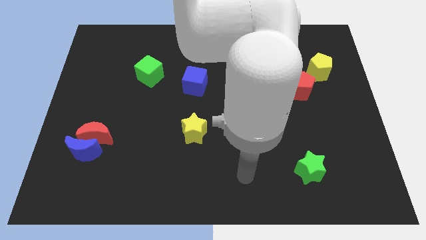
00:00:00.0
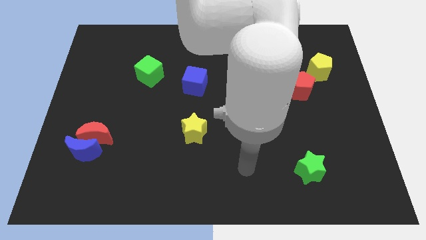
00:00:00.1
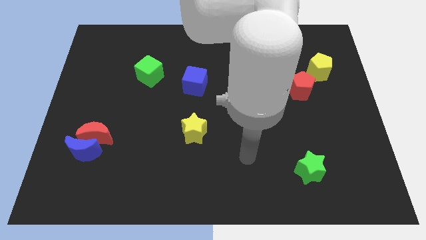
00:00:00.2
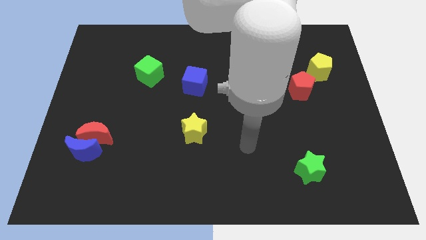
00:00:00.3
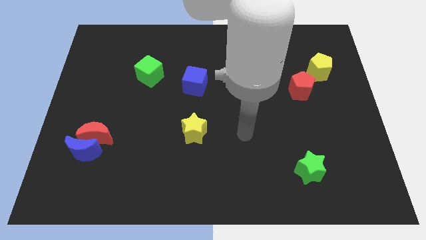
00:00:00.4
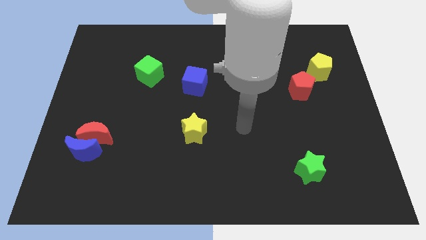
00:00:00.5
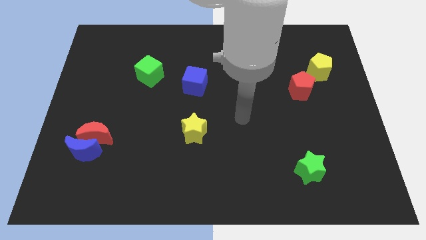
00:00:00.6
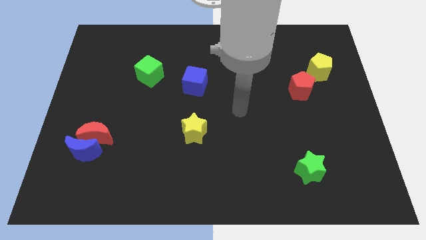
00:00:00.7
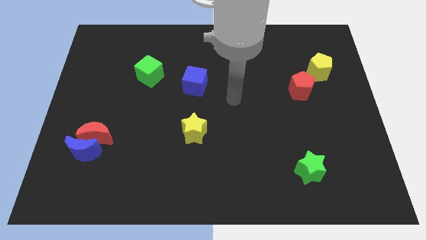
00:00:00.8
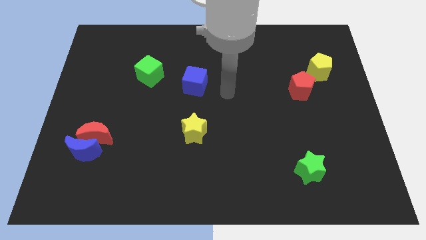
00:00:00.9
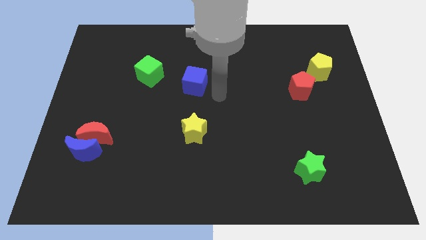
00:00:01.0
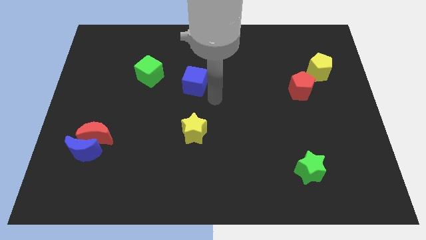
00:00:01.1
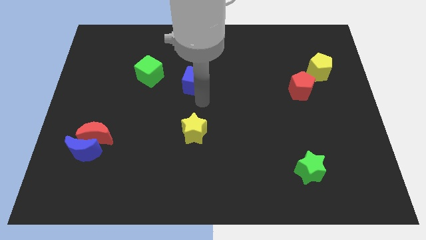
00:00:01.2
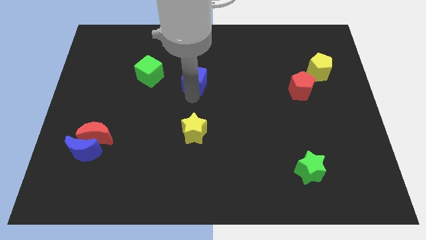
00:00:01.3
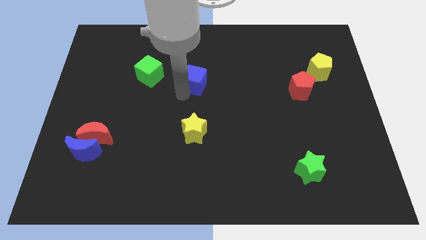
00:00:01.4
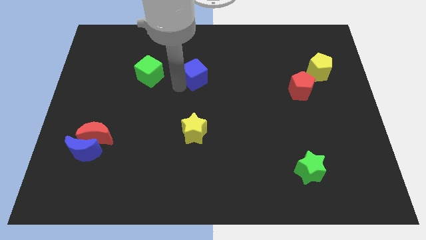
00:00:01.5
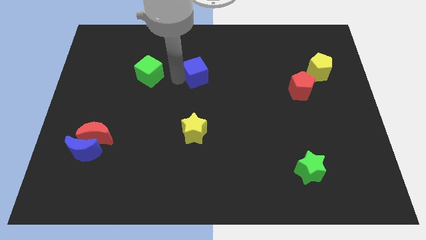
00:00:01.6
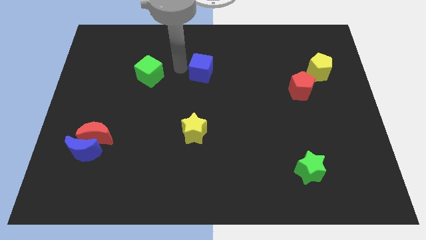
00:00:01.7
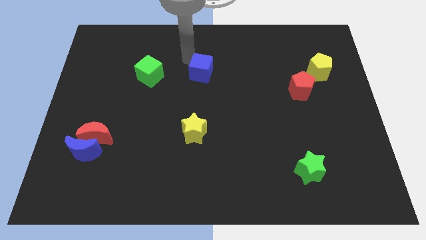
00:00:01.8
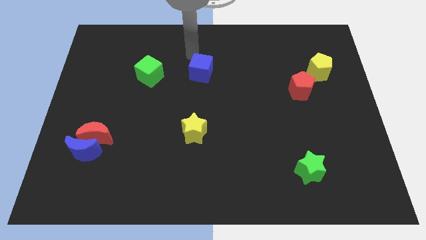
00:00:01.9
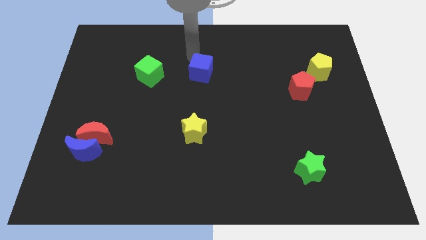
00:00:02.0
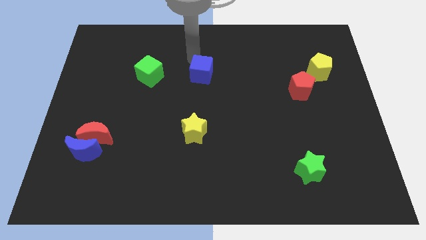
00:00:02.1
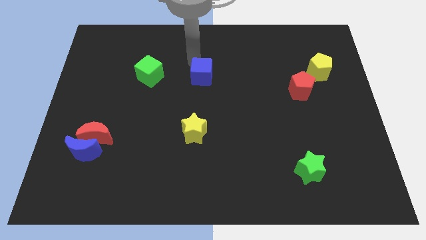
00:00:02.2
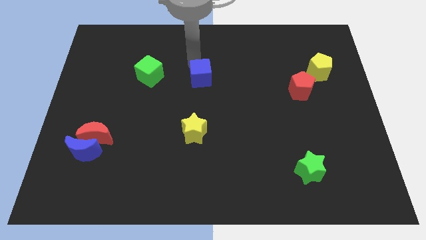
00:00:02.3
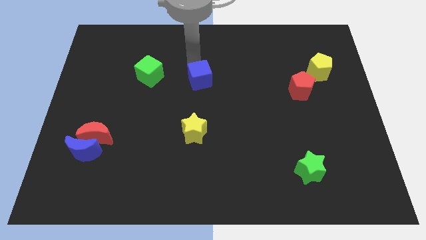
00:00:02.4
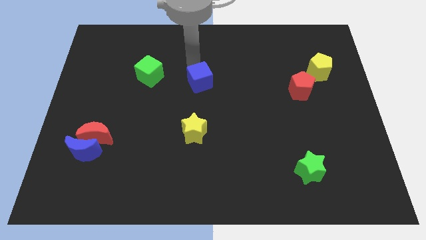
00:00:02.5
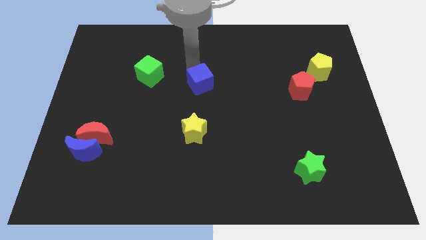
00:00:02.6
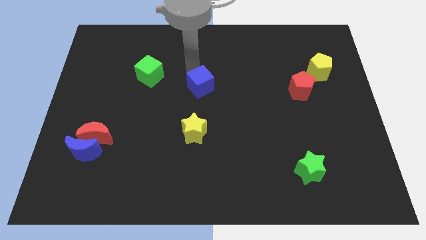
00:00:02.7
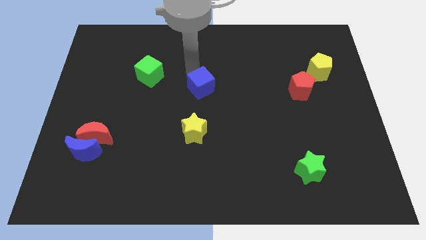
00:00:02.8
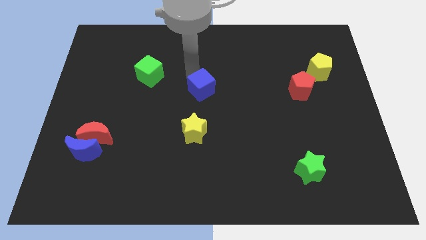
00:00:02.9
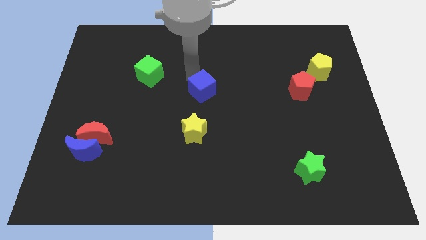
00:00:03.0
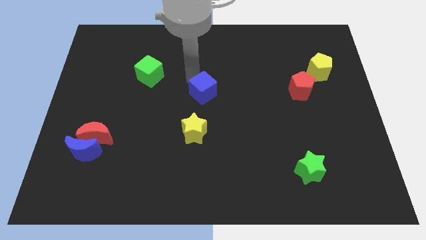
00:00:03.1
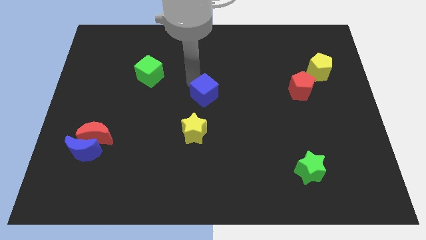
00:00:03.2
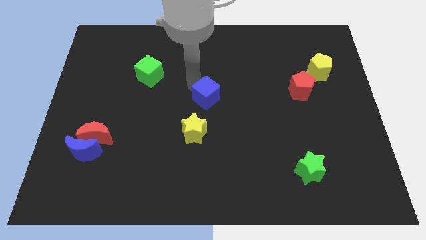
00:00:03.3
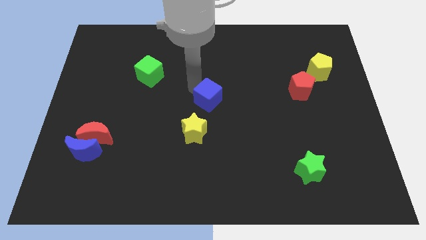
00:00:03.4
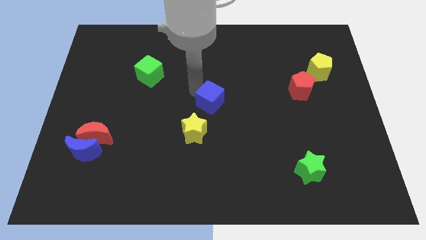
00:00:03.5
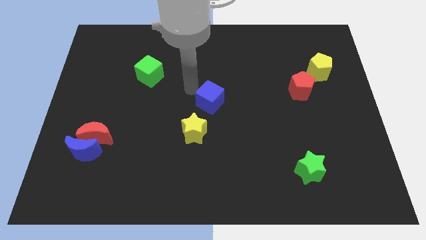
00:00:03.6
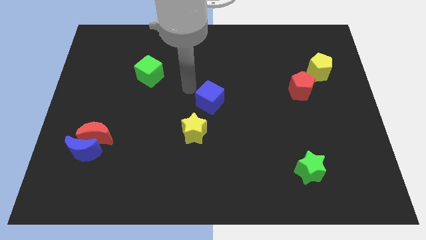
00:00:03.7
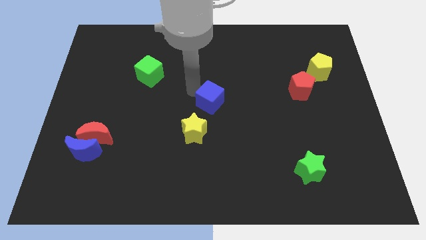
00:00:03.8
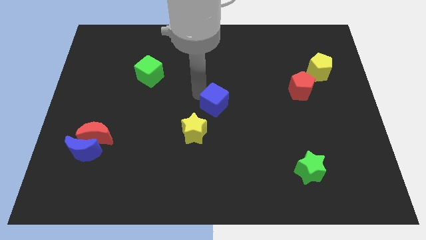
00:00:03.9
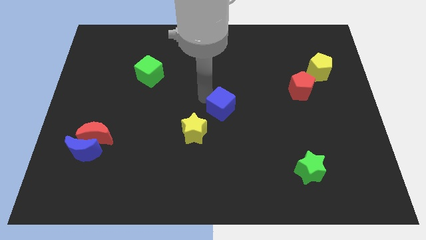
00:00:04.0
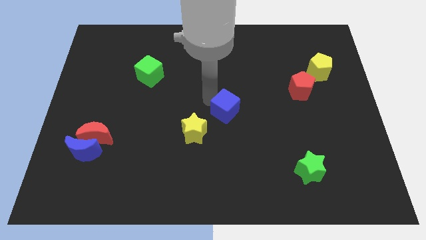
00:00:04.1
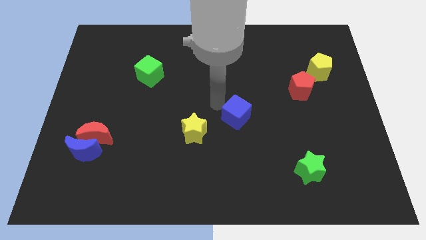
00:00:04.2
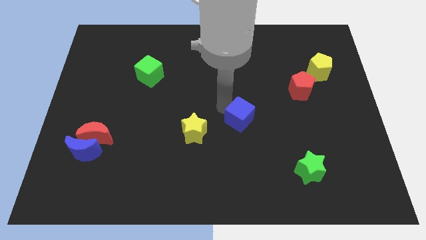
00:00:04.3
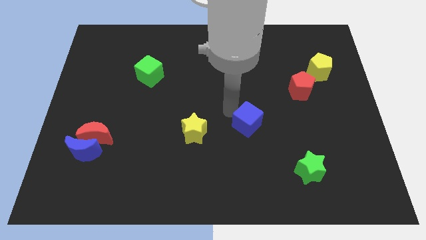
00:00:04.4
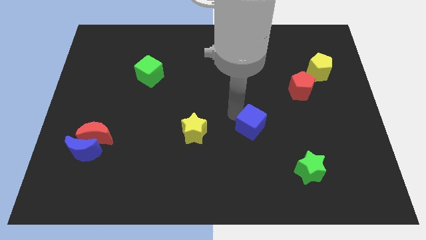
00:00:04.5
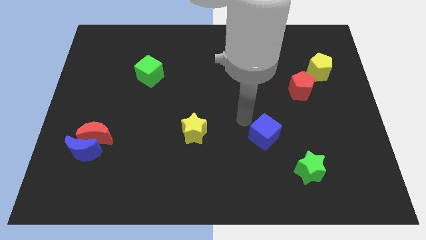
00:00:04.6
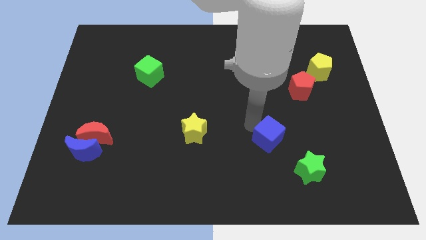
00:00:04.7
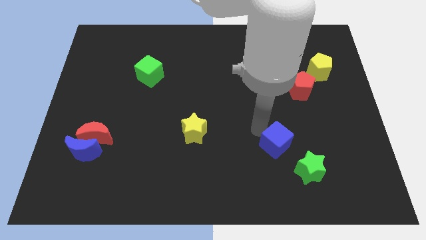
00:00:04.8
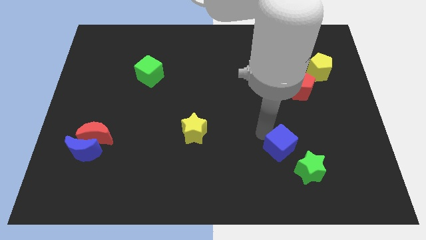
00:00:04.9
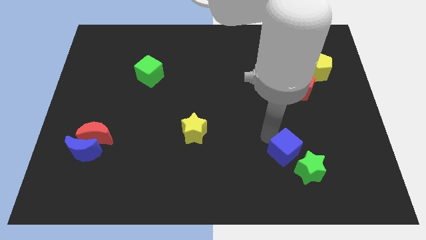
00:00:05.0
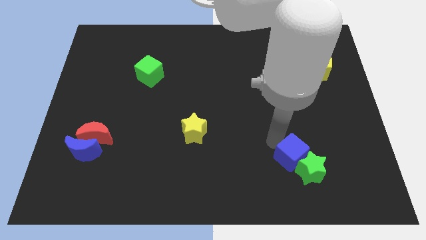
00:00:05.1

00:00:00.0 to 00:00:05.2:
move the blue cube towards the green star

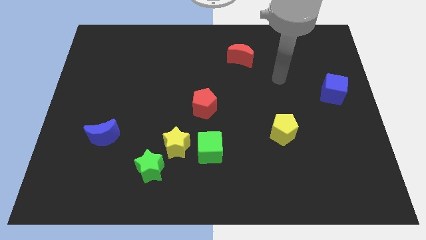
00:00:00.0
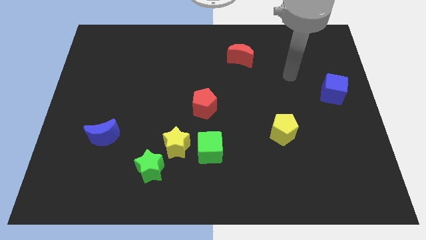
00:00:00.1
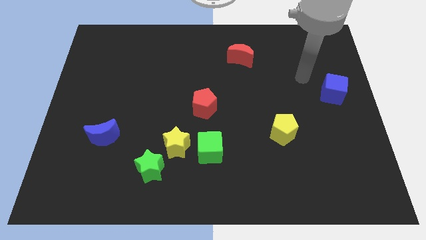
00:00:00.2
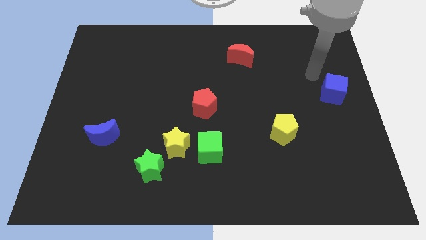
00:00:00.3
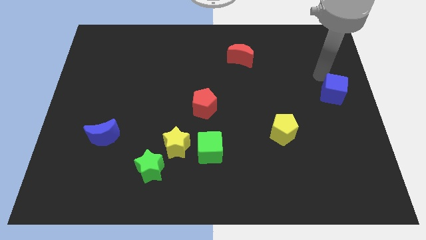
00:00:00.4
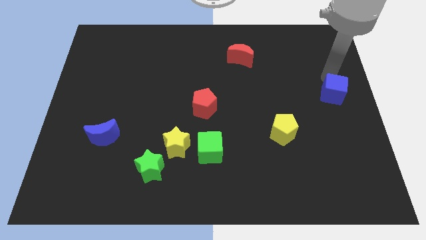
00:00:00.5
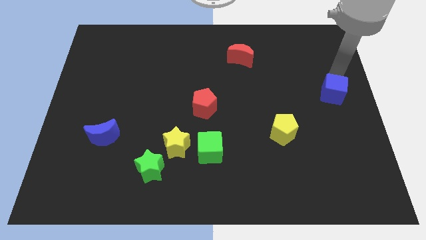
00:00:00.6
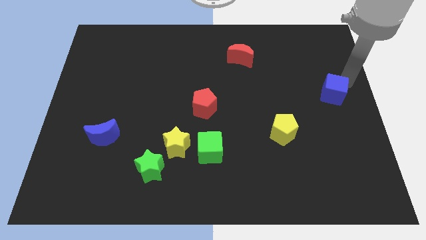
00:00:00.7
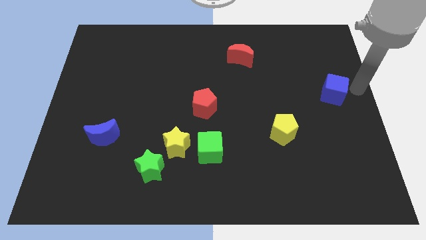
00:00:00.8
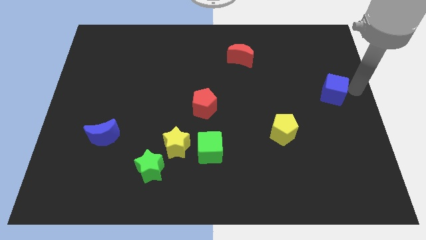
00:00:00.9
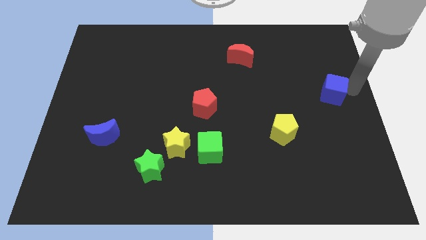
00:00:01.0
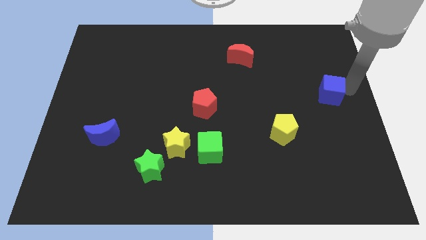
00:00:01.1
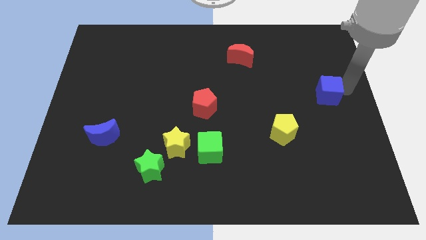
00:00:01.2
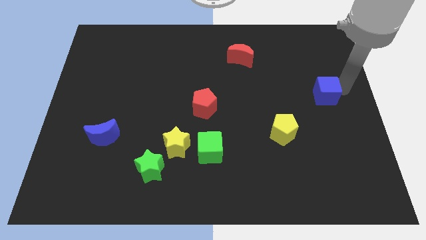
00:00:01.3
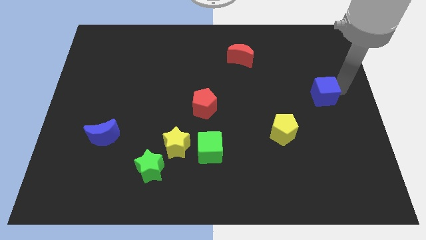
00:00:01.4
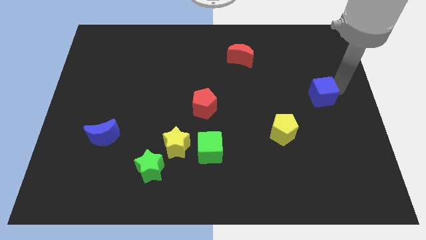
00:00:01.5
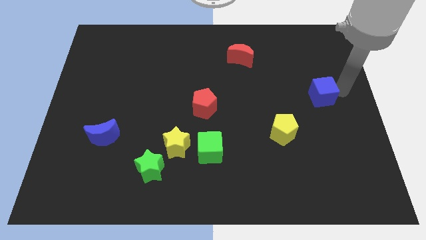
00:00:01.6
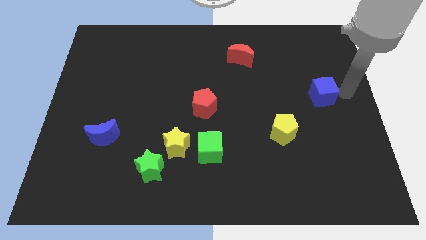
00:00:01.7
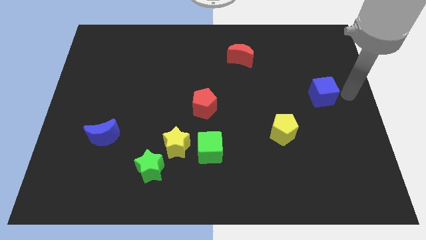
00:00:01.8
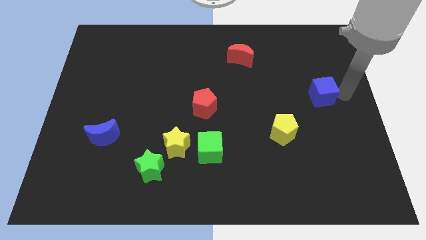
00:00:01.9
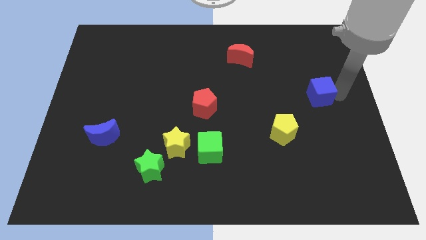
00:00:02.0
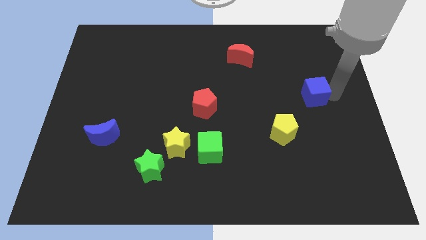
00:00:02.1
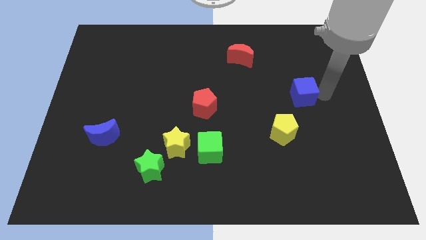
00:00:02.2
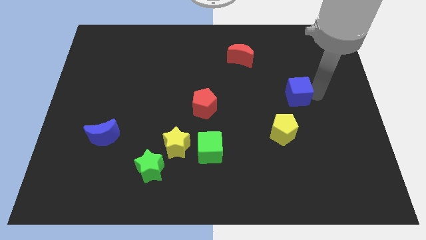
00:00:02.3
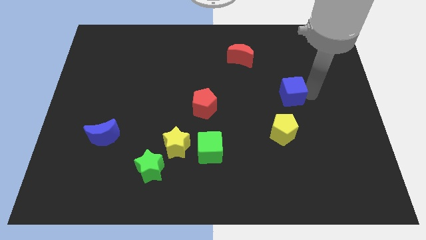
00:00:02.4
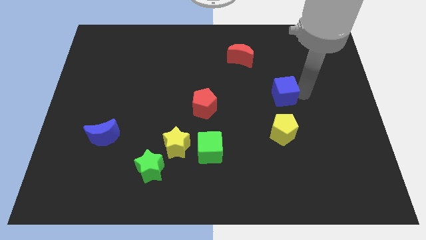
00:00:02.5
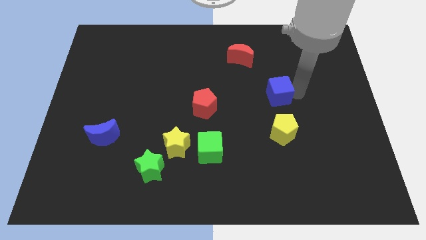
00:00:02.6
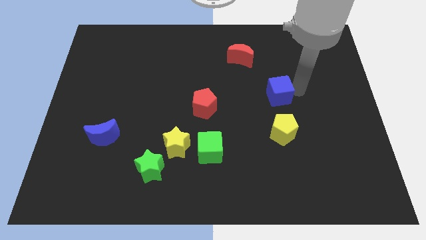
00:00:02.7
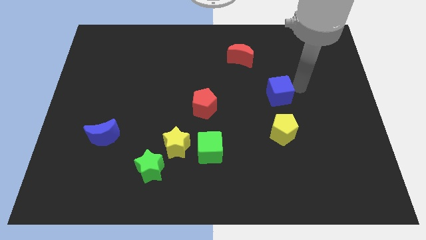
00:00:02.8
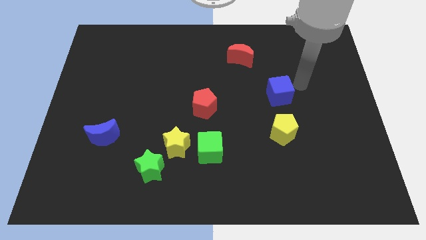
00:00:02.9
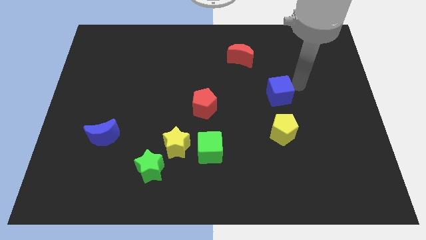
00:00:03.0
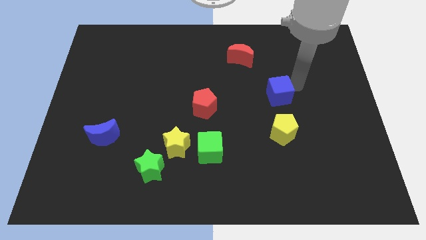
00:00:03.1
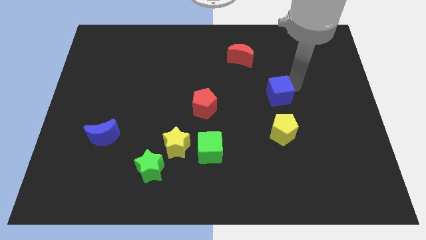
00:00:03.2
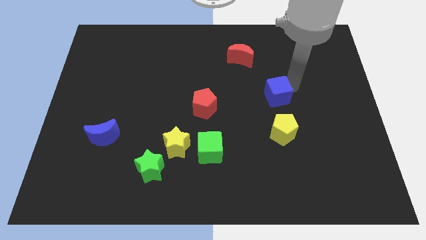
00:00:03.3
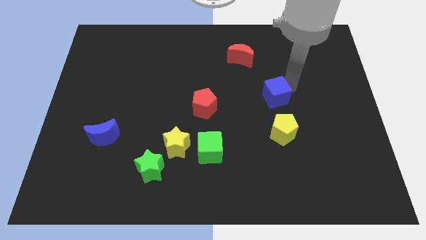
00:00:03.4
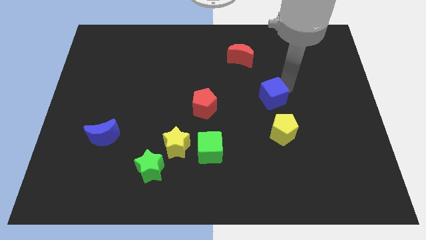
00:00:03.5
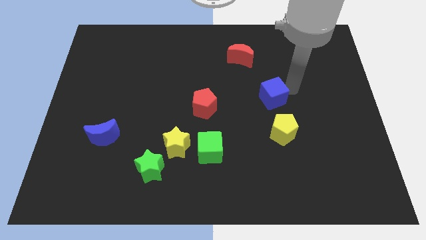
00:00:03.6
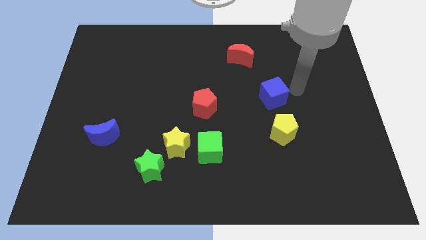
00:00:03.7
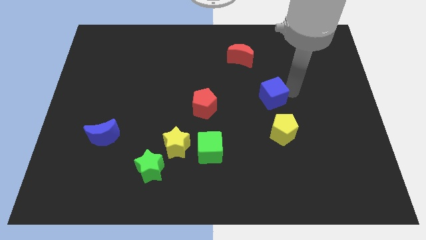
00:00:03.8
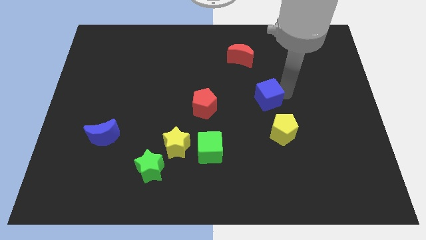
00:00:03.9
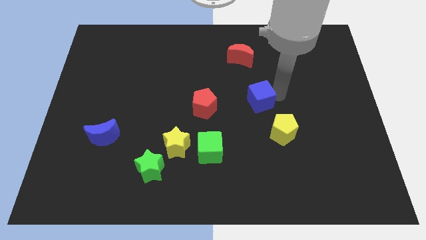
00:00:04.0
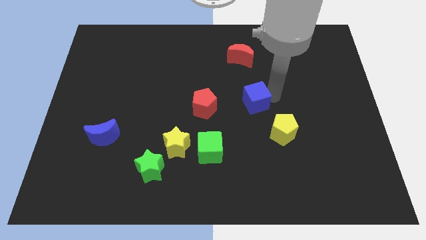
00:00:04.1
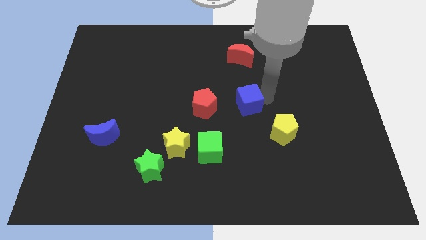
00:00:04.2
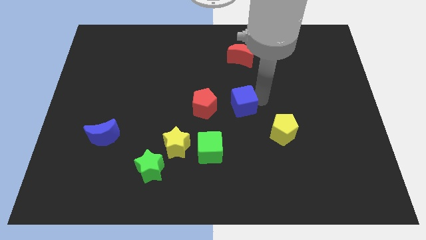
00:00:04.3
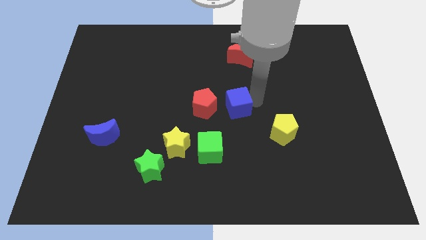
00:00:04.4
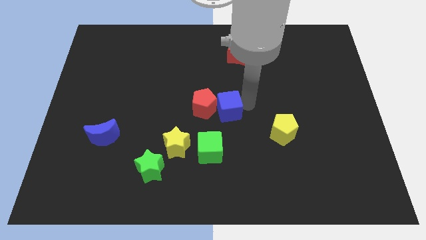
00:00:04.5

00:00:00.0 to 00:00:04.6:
put the blue cube next to the red pentagon
